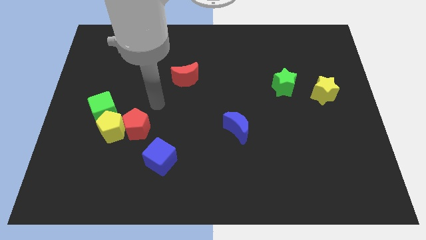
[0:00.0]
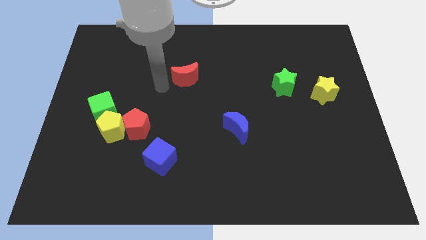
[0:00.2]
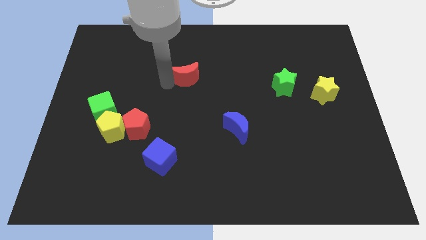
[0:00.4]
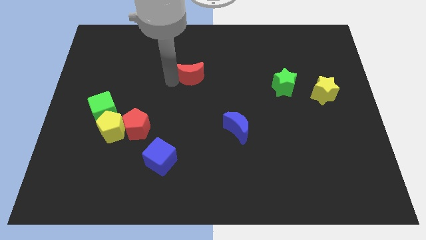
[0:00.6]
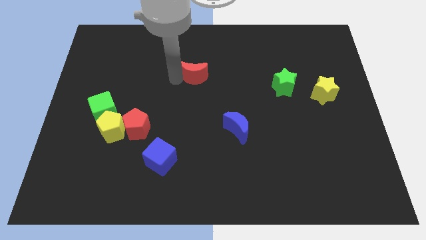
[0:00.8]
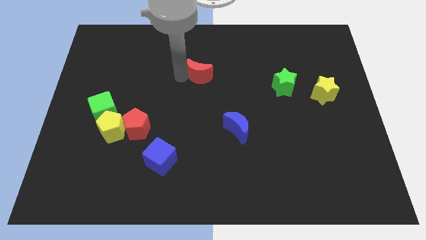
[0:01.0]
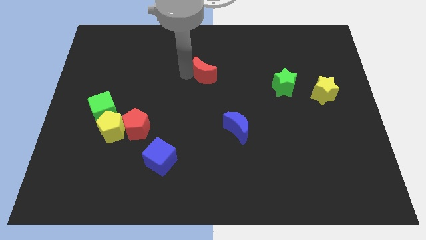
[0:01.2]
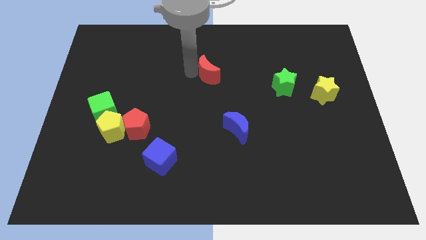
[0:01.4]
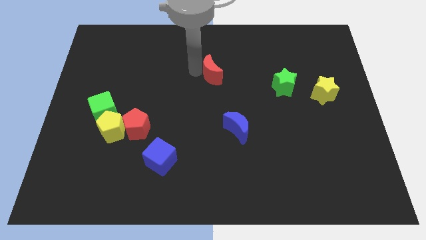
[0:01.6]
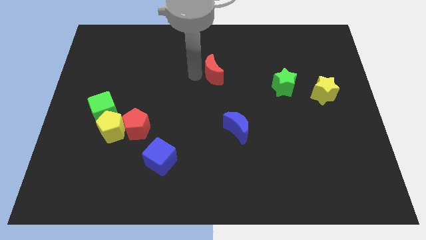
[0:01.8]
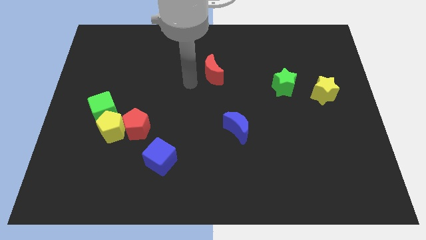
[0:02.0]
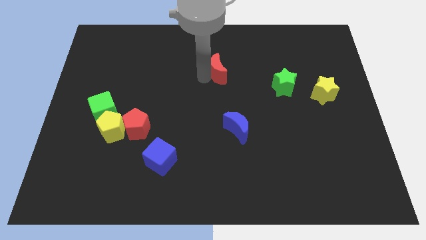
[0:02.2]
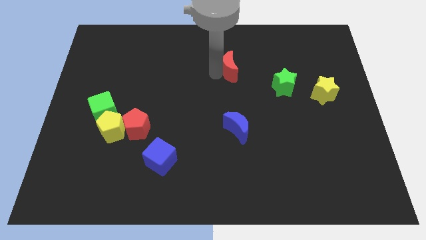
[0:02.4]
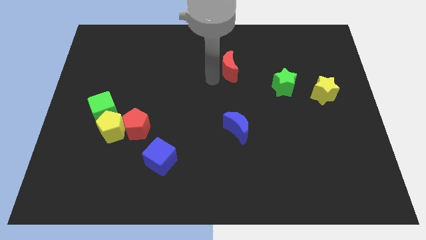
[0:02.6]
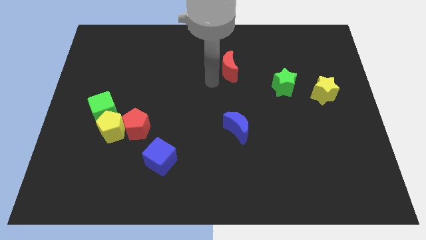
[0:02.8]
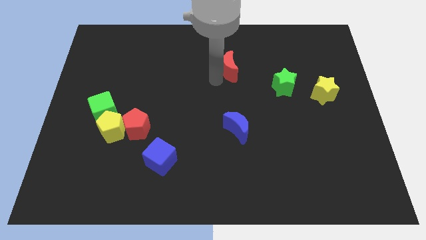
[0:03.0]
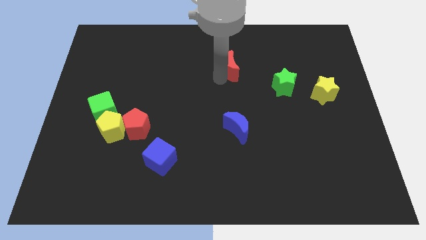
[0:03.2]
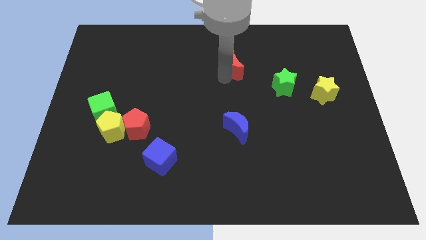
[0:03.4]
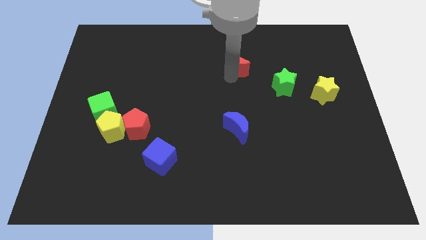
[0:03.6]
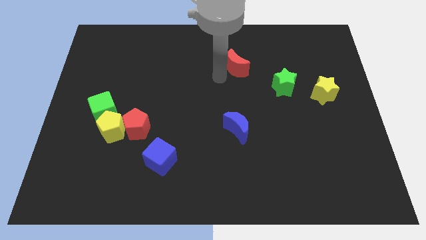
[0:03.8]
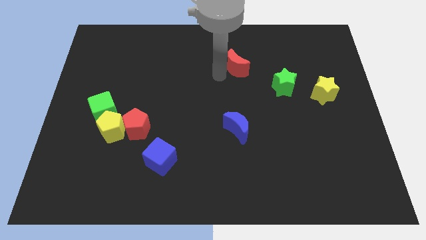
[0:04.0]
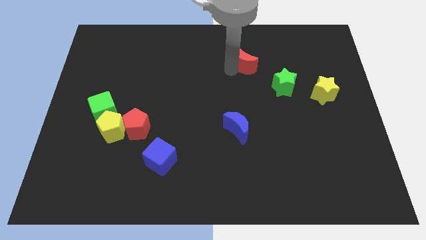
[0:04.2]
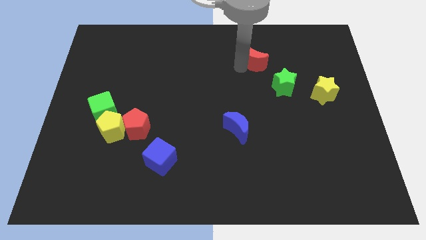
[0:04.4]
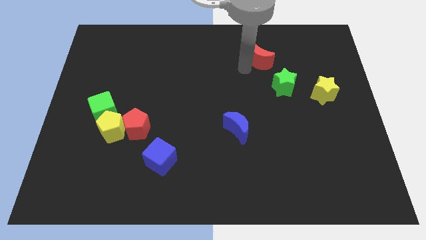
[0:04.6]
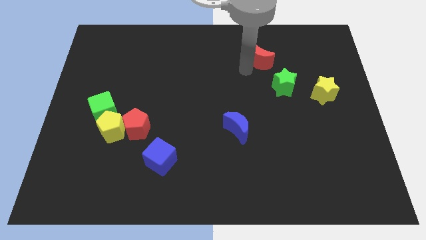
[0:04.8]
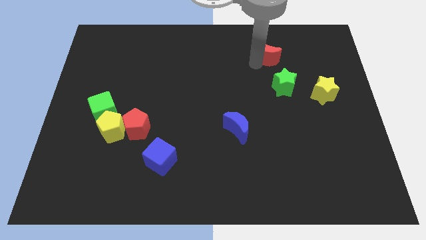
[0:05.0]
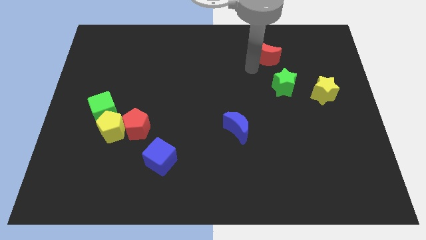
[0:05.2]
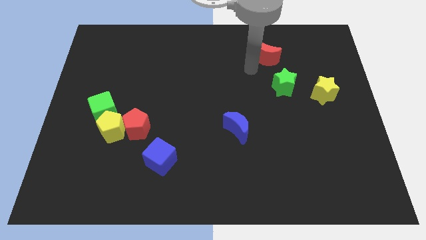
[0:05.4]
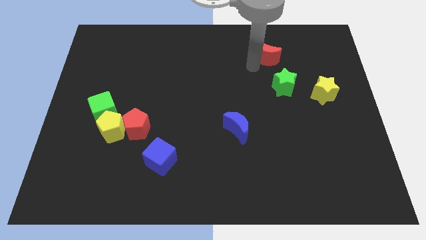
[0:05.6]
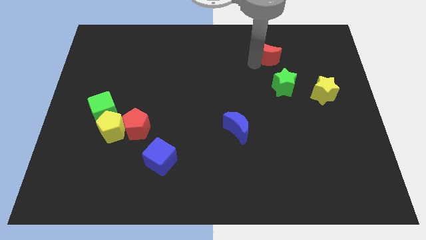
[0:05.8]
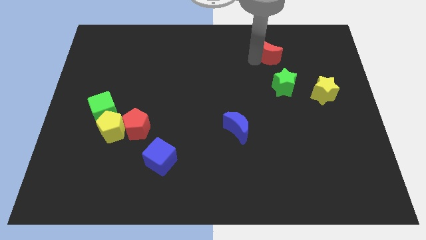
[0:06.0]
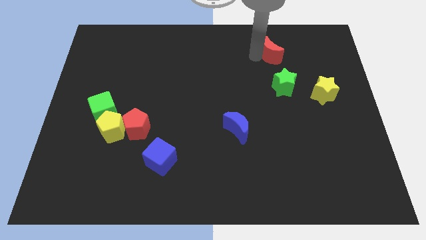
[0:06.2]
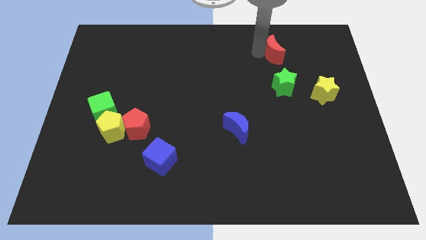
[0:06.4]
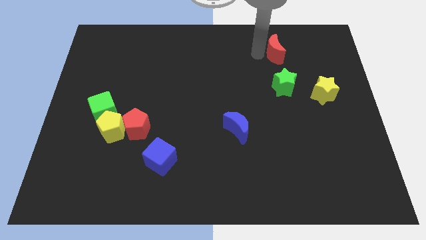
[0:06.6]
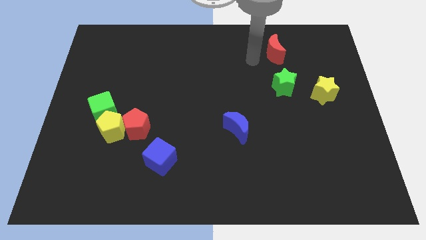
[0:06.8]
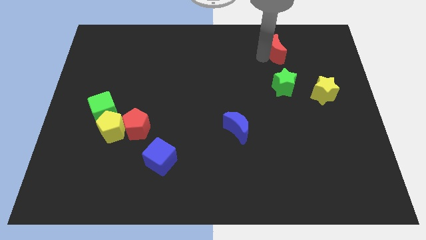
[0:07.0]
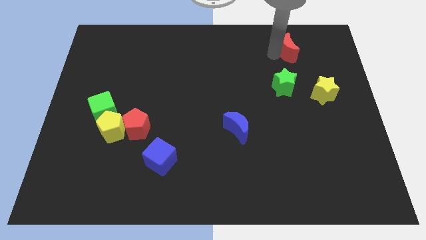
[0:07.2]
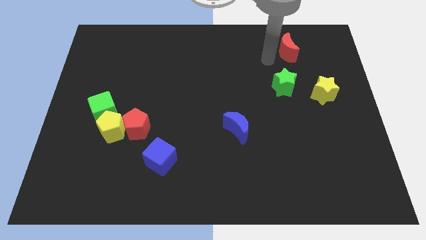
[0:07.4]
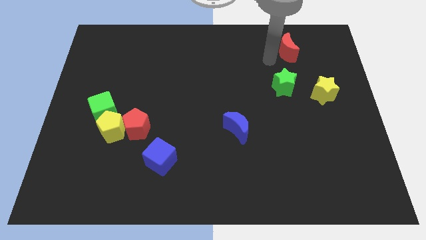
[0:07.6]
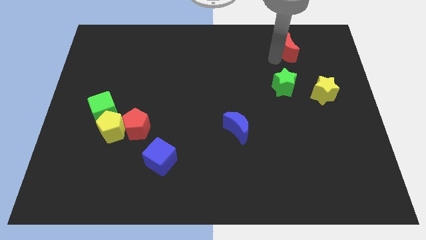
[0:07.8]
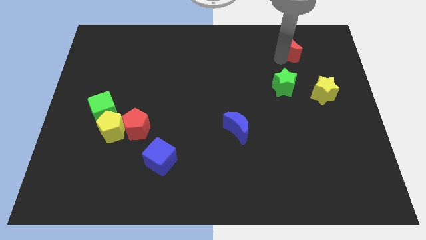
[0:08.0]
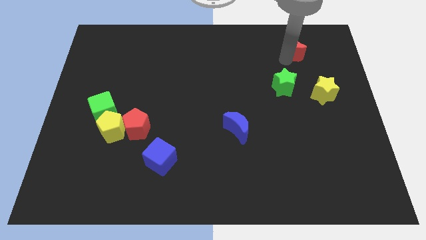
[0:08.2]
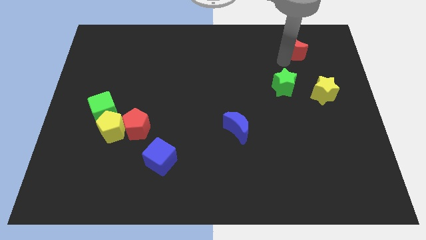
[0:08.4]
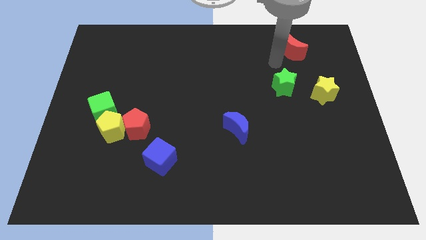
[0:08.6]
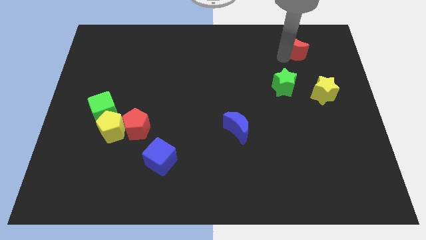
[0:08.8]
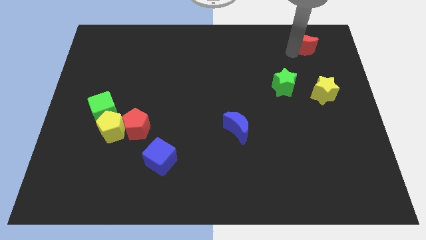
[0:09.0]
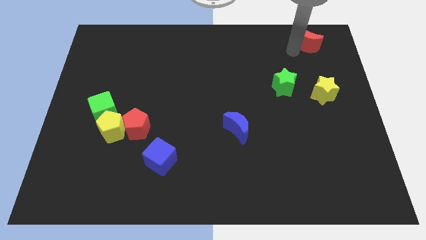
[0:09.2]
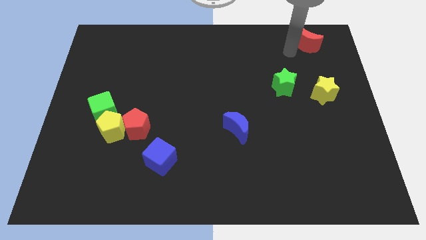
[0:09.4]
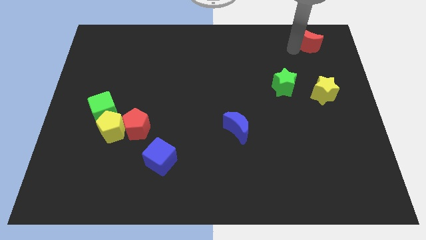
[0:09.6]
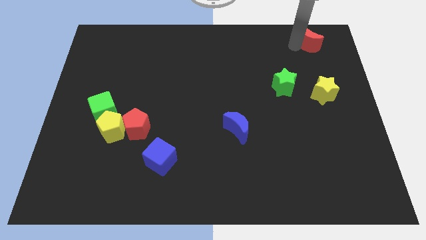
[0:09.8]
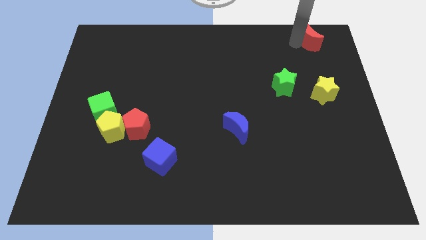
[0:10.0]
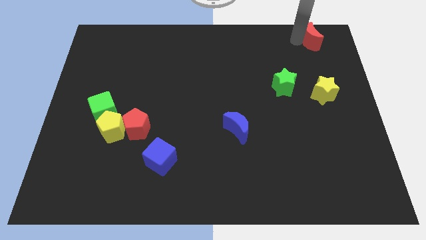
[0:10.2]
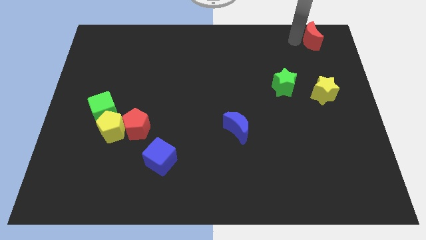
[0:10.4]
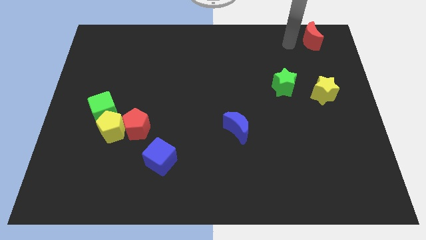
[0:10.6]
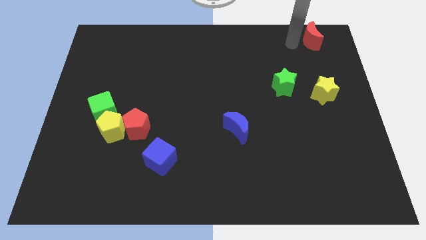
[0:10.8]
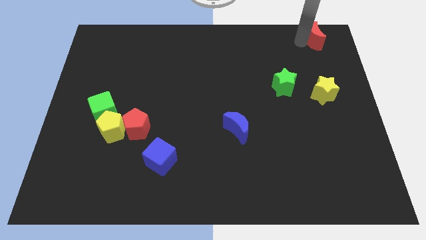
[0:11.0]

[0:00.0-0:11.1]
push the red moon to the upper right corner
